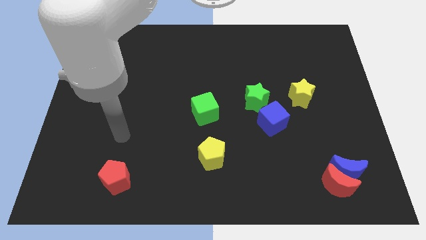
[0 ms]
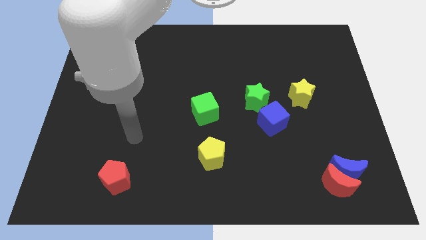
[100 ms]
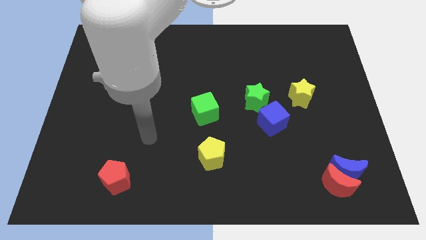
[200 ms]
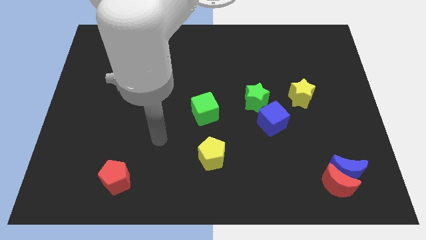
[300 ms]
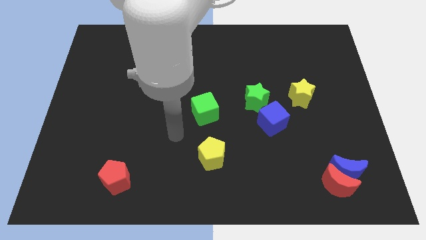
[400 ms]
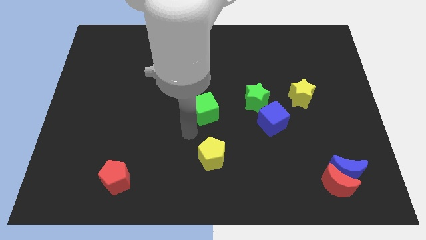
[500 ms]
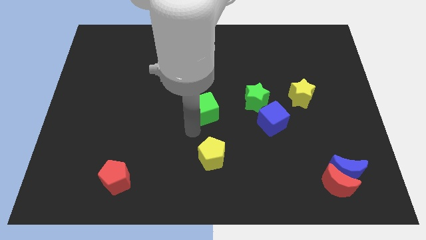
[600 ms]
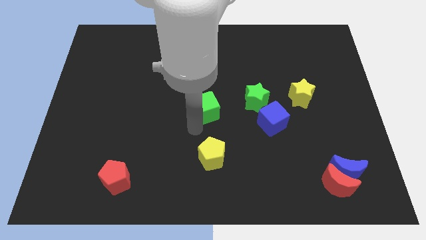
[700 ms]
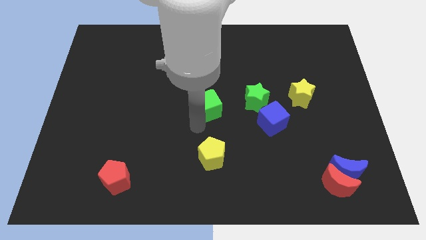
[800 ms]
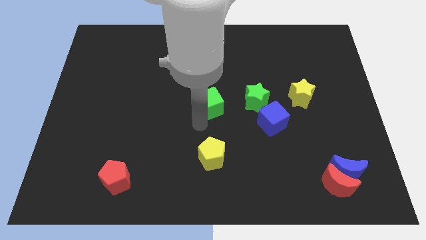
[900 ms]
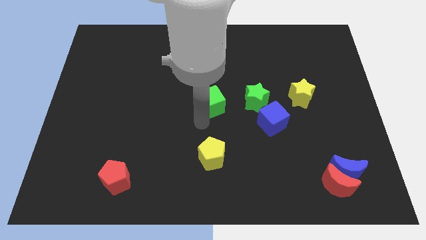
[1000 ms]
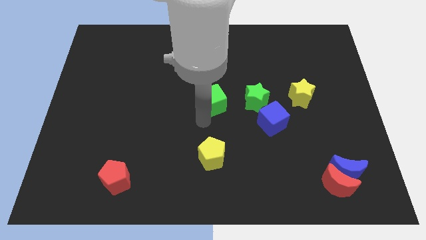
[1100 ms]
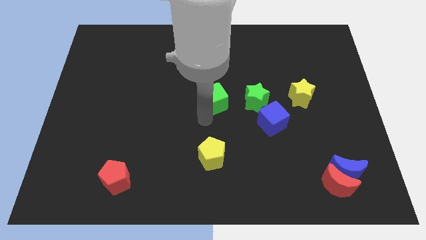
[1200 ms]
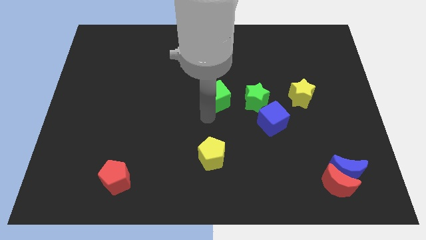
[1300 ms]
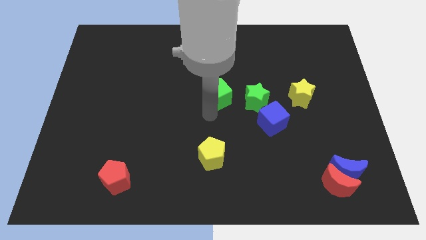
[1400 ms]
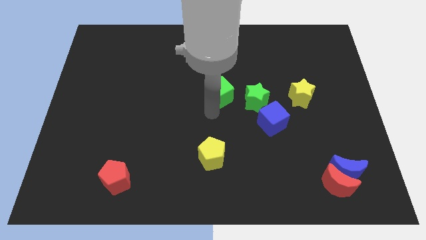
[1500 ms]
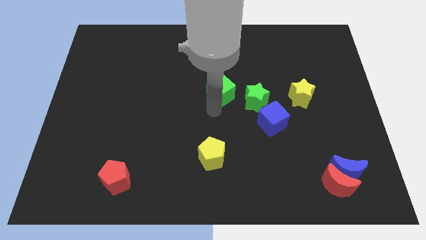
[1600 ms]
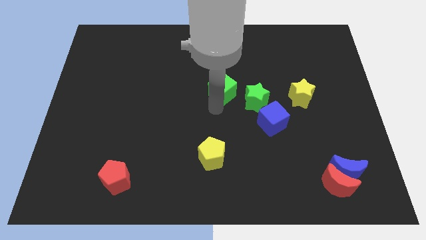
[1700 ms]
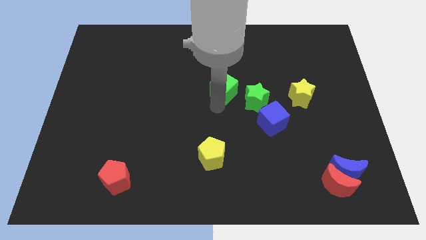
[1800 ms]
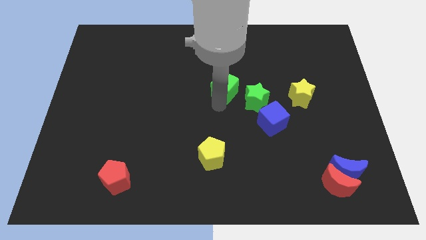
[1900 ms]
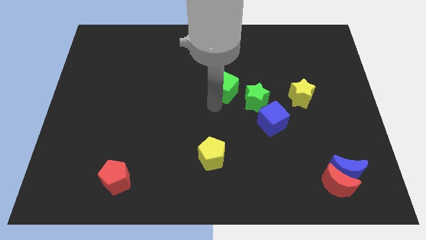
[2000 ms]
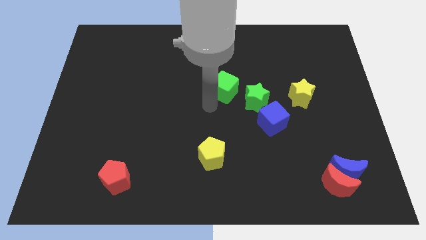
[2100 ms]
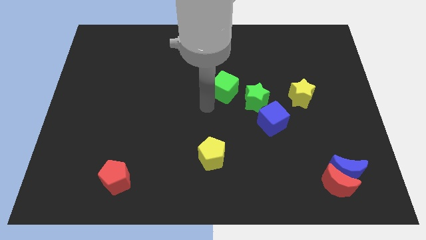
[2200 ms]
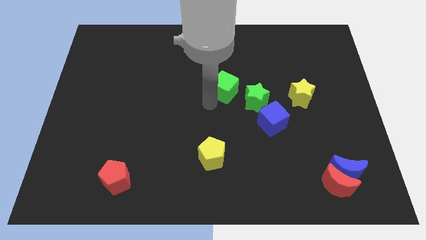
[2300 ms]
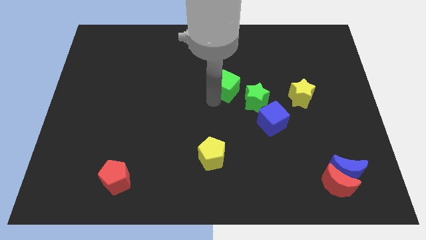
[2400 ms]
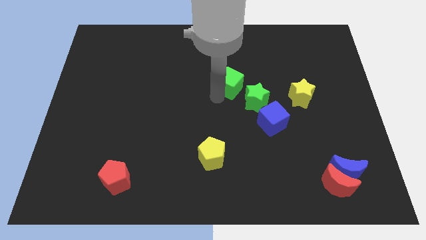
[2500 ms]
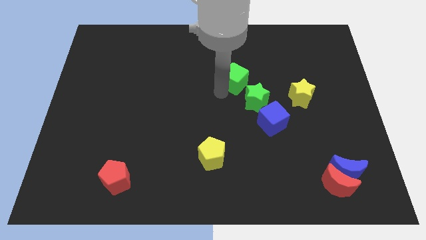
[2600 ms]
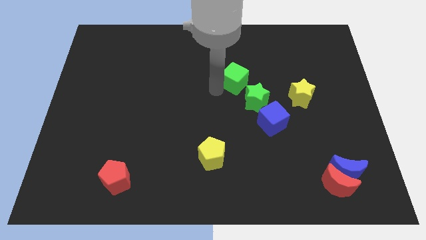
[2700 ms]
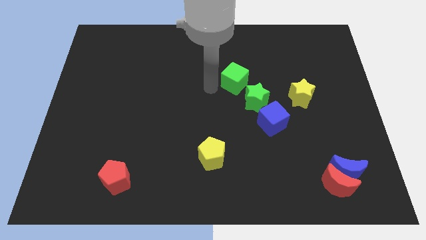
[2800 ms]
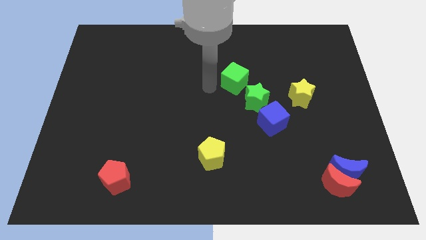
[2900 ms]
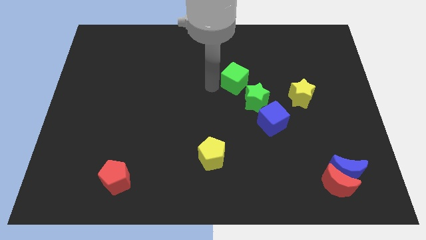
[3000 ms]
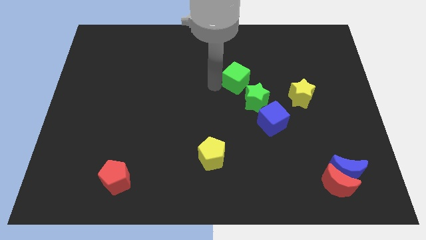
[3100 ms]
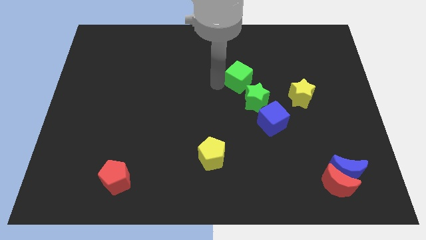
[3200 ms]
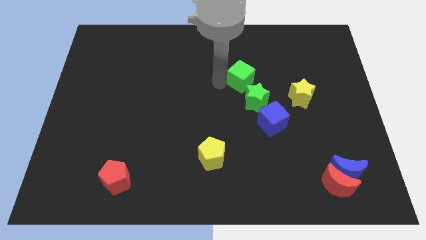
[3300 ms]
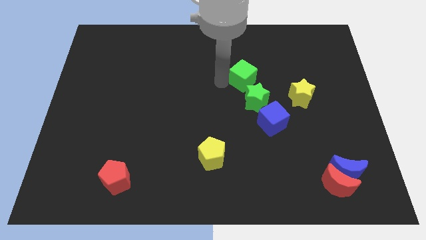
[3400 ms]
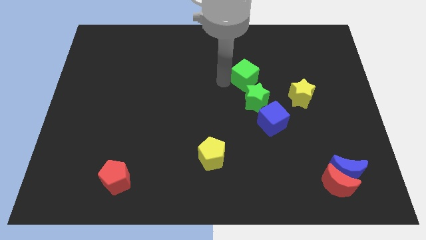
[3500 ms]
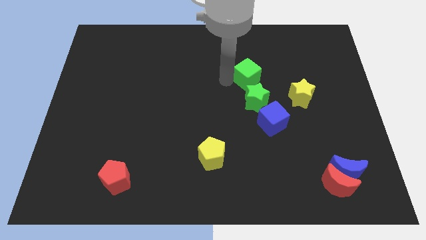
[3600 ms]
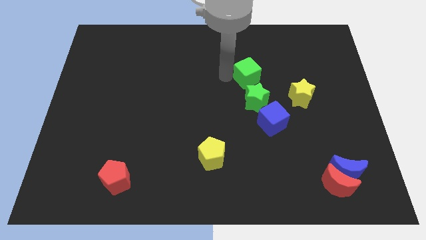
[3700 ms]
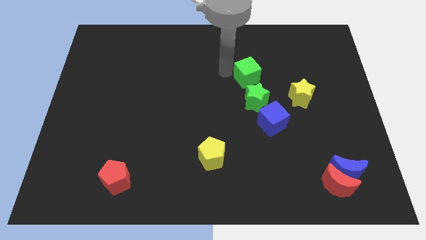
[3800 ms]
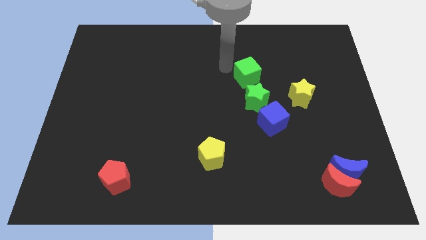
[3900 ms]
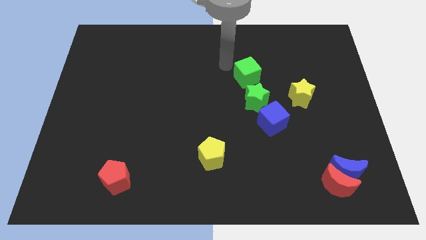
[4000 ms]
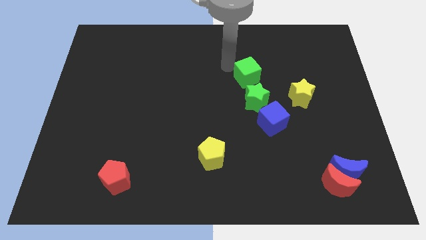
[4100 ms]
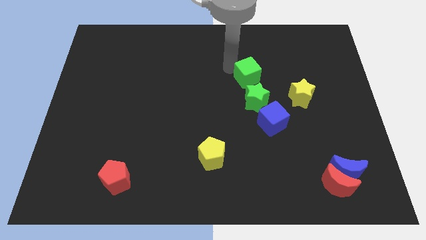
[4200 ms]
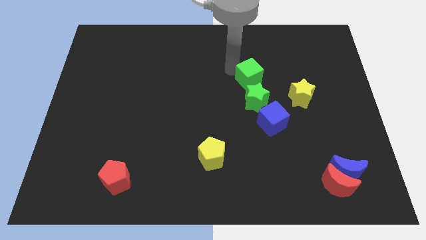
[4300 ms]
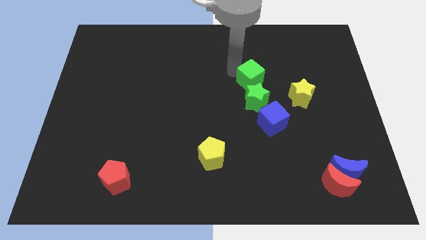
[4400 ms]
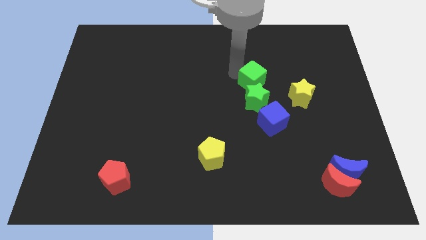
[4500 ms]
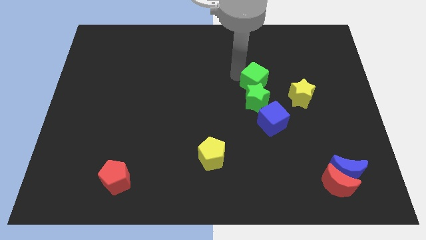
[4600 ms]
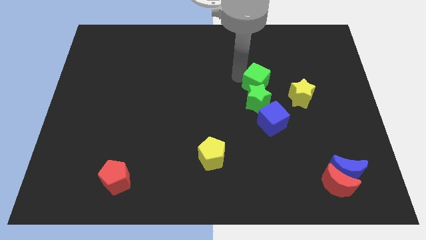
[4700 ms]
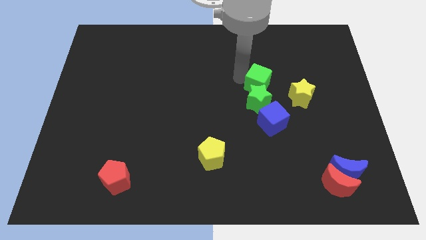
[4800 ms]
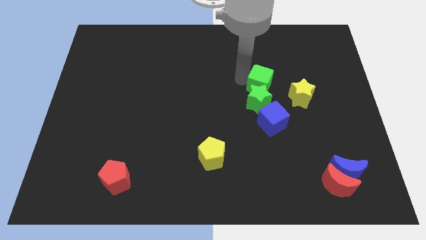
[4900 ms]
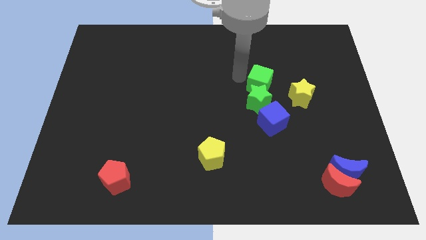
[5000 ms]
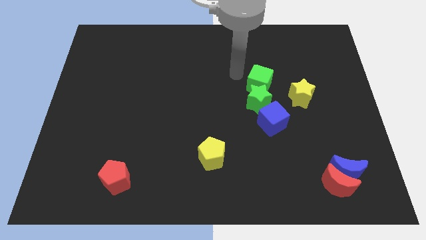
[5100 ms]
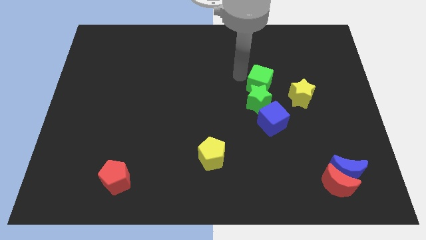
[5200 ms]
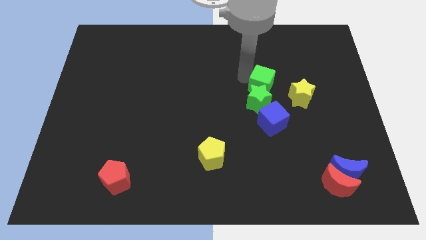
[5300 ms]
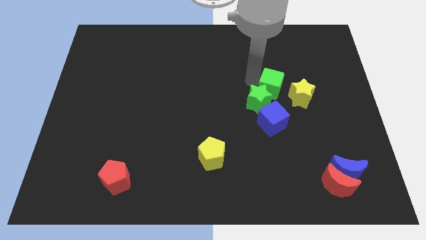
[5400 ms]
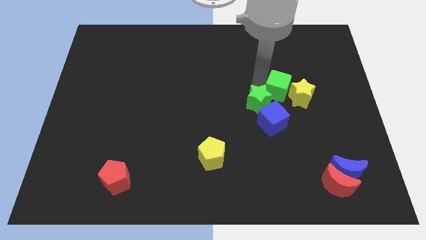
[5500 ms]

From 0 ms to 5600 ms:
push the green cube next to the yellow star

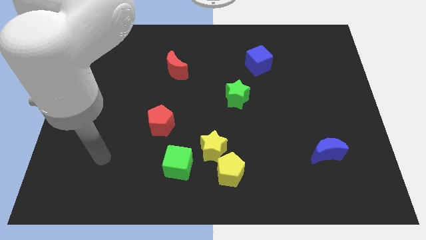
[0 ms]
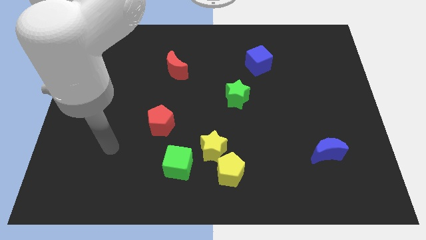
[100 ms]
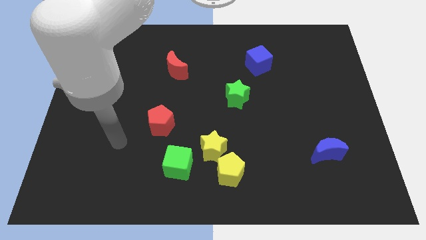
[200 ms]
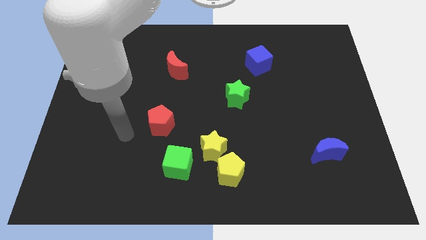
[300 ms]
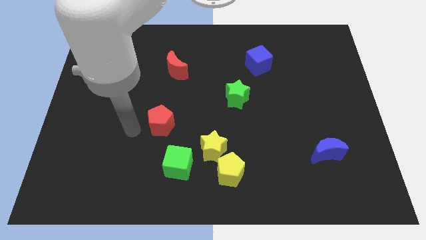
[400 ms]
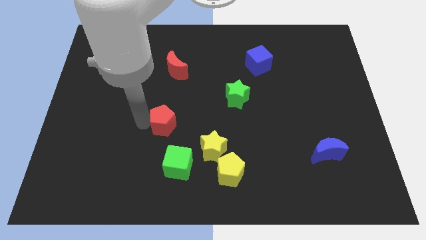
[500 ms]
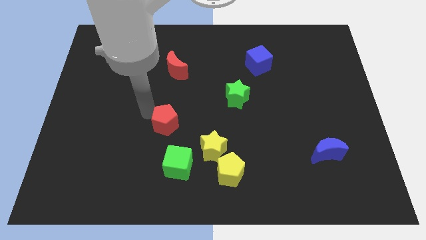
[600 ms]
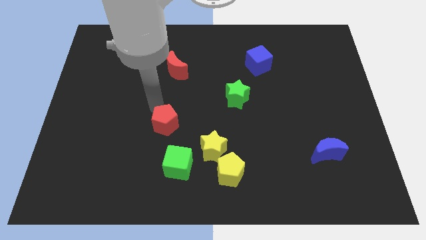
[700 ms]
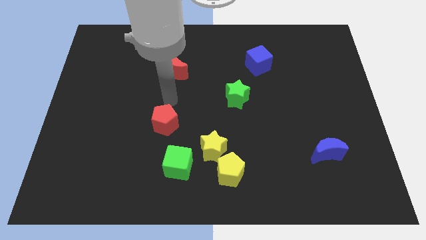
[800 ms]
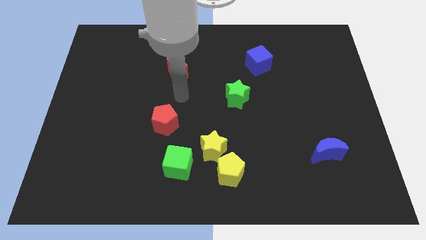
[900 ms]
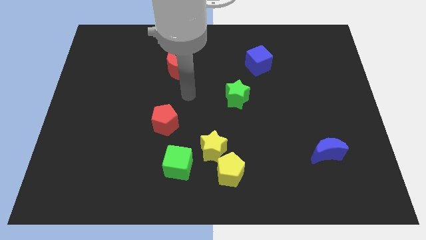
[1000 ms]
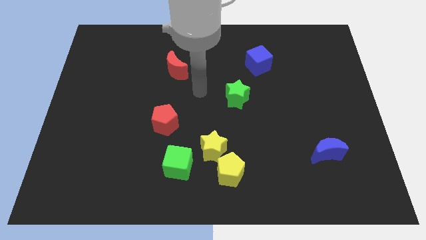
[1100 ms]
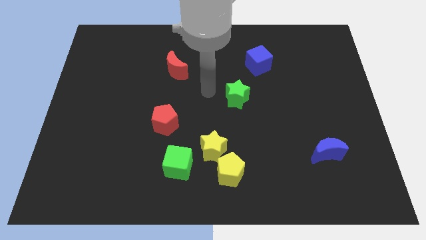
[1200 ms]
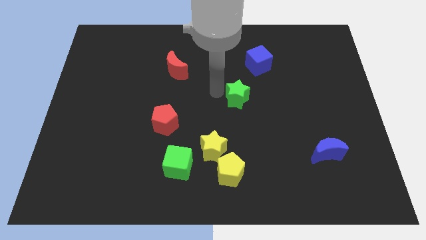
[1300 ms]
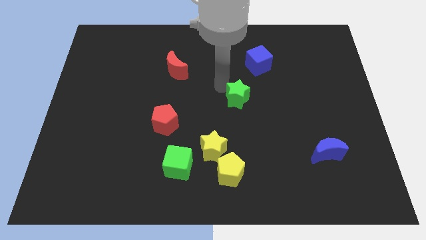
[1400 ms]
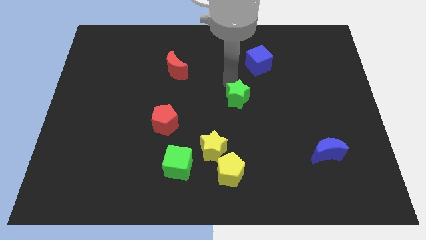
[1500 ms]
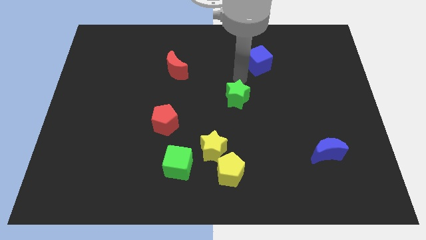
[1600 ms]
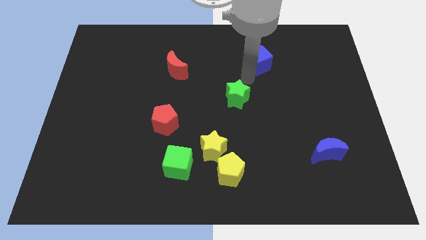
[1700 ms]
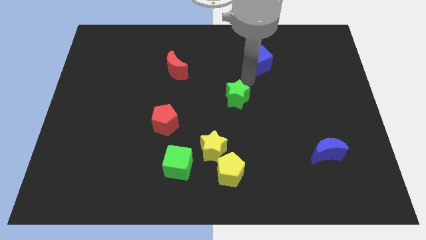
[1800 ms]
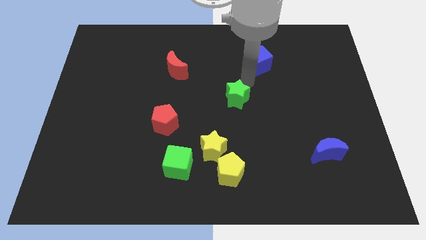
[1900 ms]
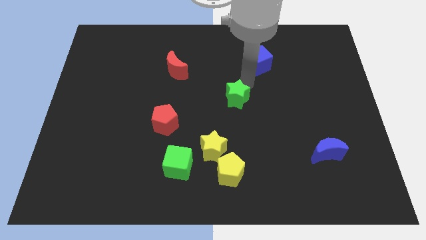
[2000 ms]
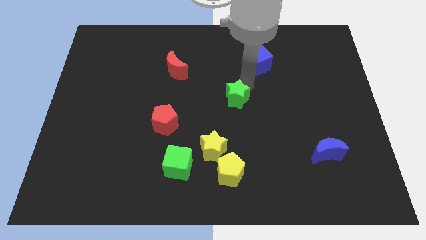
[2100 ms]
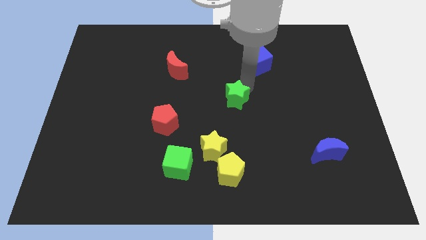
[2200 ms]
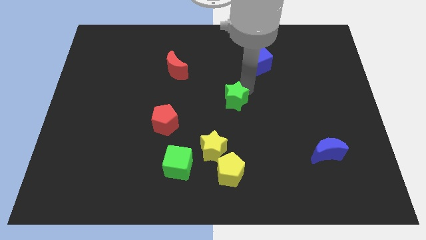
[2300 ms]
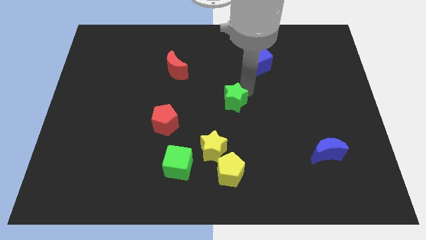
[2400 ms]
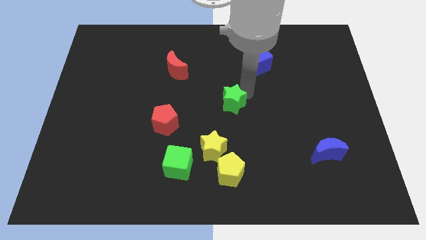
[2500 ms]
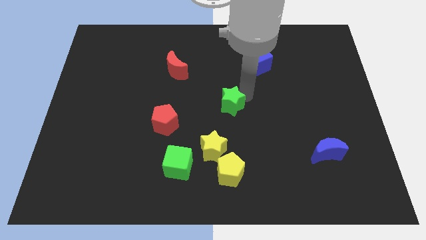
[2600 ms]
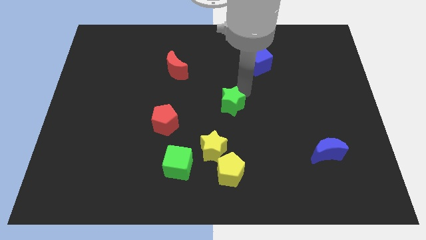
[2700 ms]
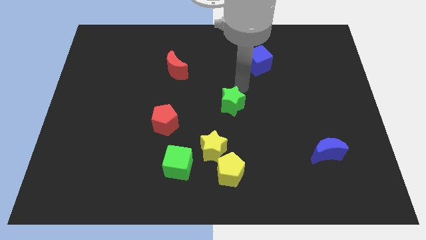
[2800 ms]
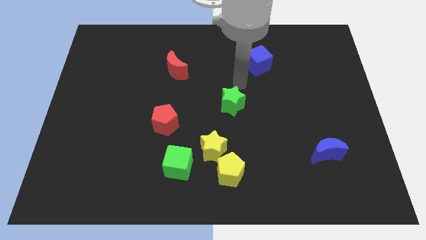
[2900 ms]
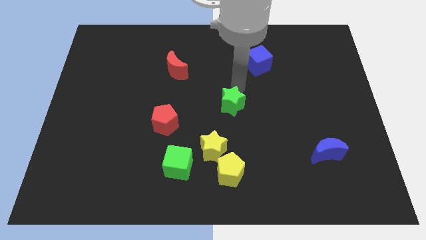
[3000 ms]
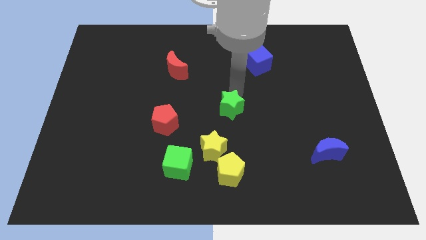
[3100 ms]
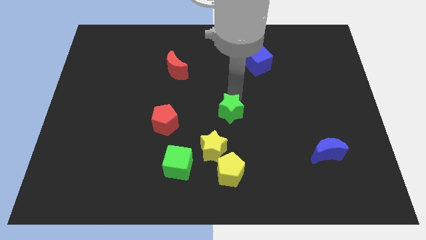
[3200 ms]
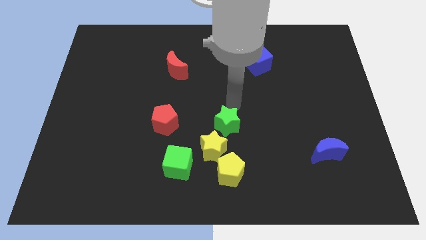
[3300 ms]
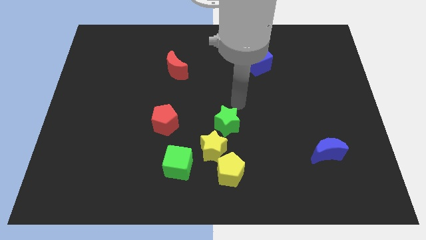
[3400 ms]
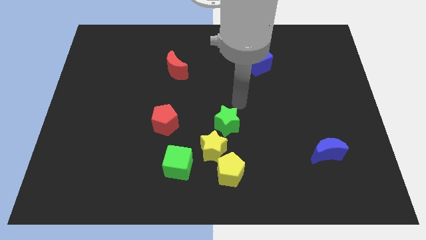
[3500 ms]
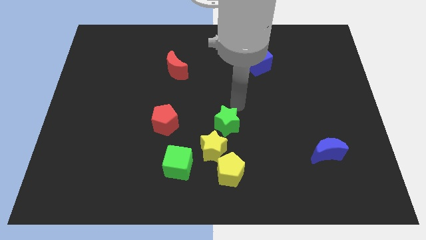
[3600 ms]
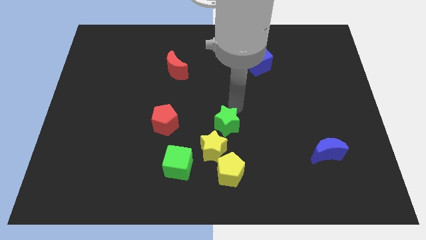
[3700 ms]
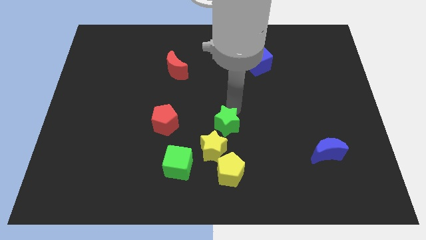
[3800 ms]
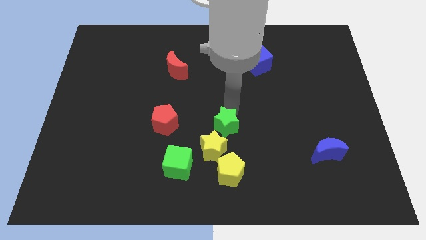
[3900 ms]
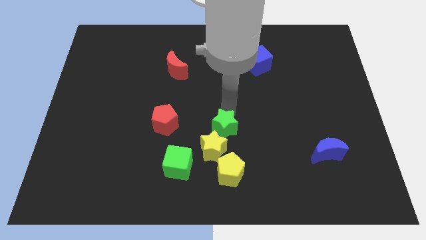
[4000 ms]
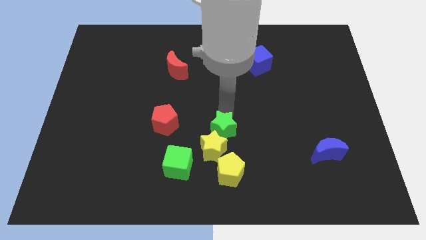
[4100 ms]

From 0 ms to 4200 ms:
move the green star towards the yellow star
